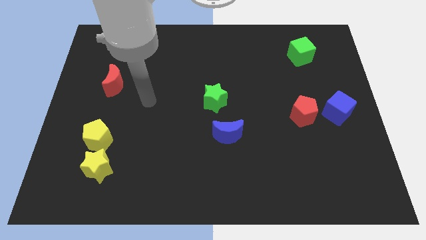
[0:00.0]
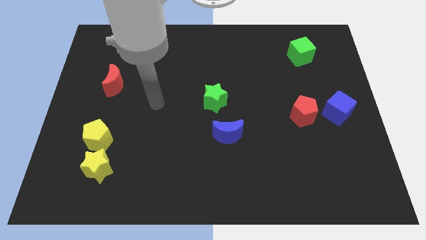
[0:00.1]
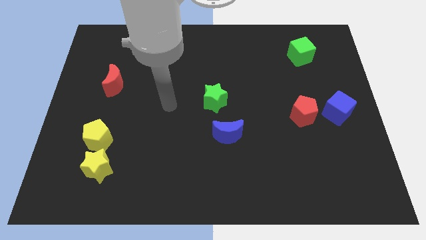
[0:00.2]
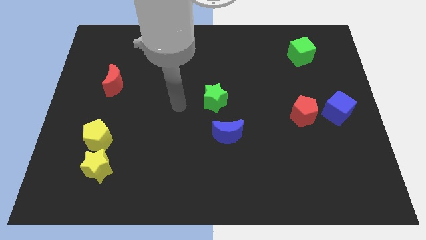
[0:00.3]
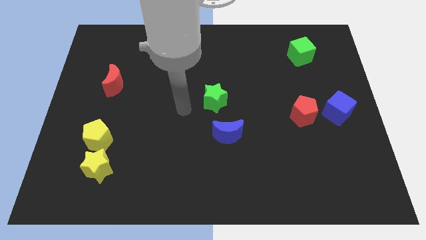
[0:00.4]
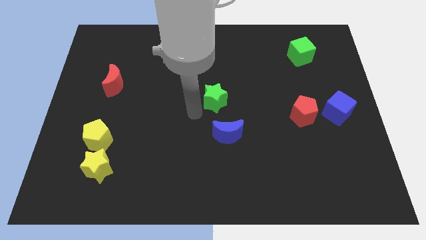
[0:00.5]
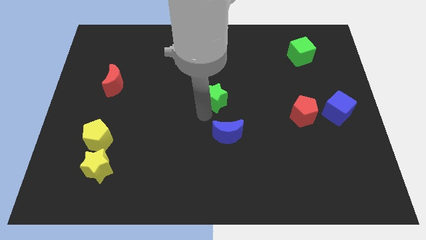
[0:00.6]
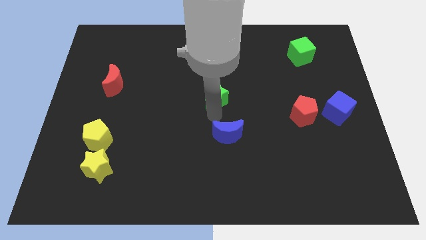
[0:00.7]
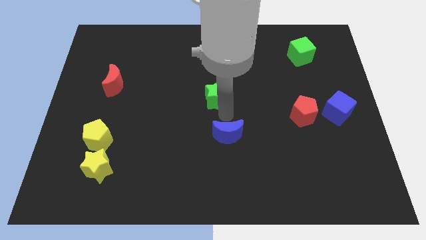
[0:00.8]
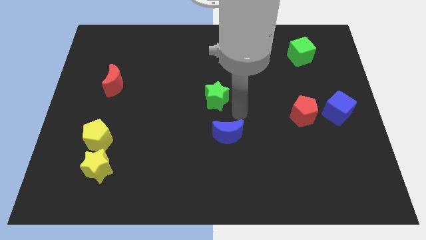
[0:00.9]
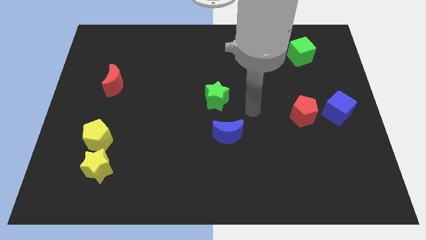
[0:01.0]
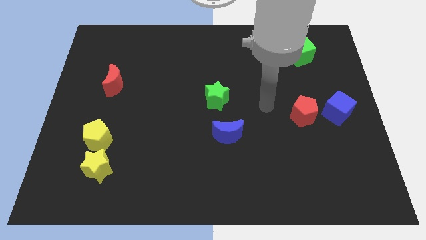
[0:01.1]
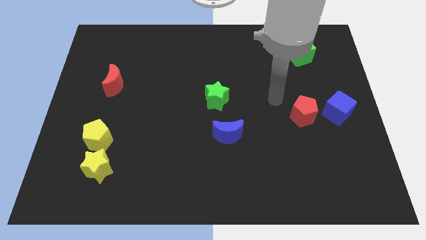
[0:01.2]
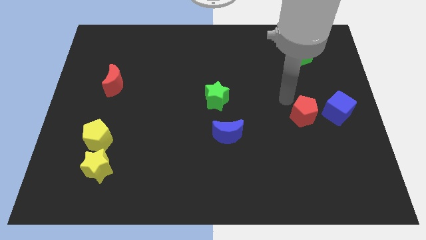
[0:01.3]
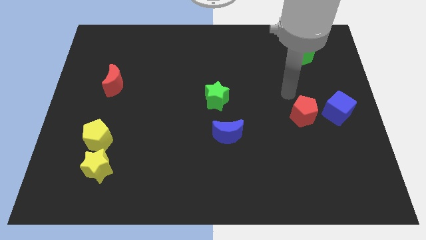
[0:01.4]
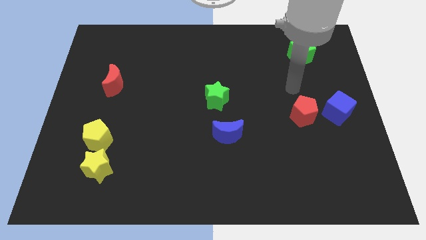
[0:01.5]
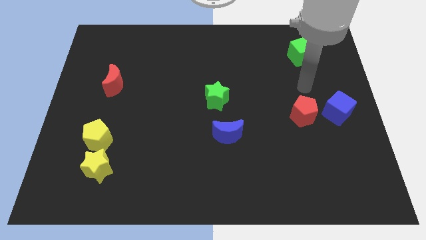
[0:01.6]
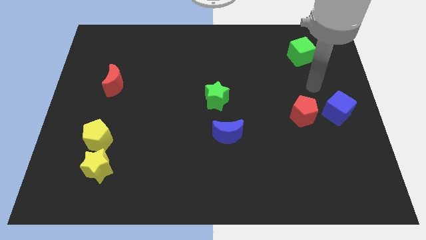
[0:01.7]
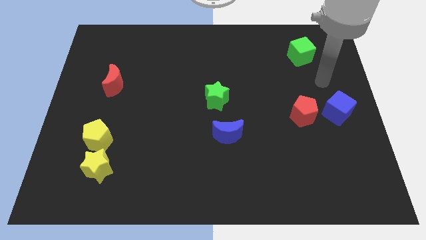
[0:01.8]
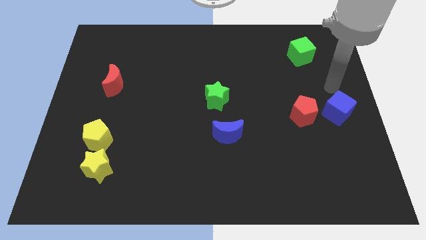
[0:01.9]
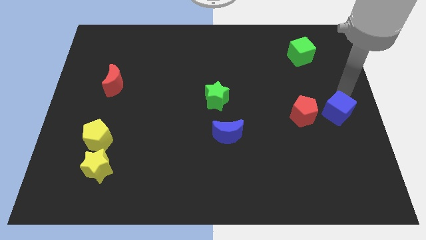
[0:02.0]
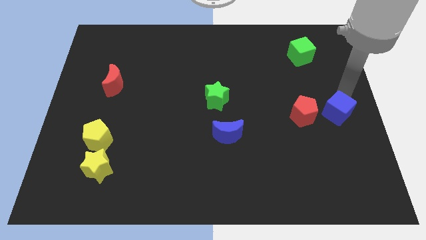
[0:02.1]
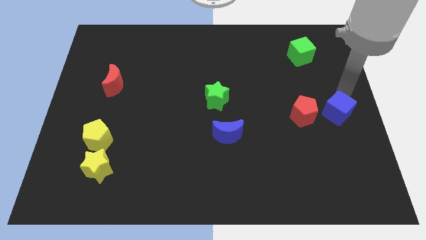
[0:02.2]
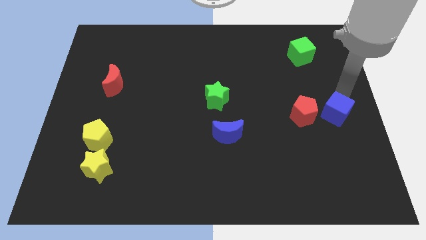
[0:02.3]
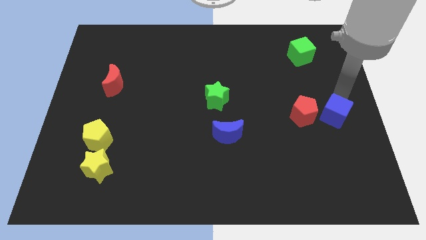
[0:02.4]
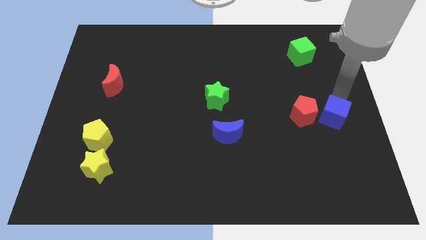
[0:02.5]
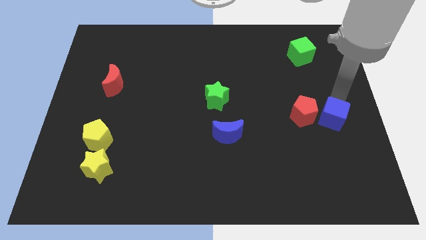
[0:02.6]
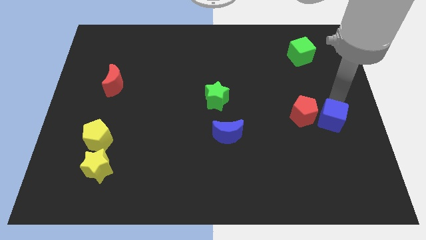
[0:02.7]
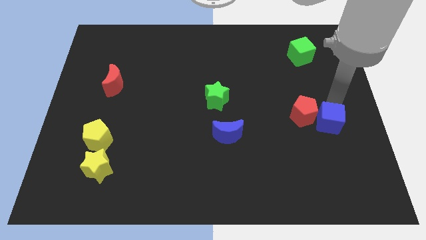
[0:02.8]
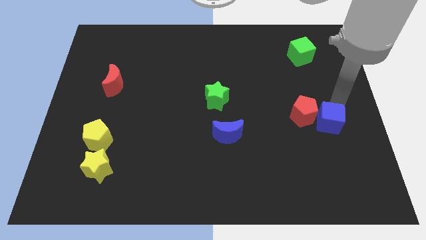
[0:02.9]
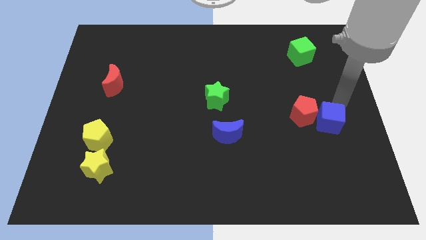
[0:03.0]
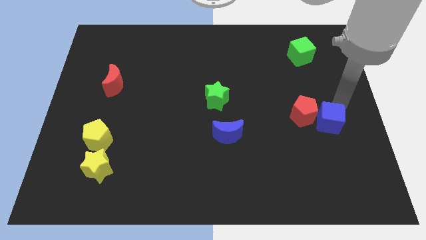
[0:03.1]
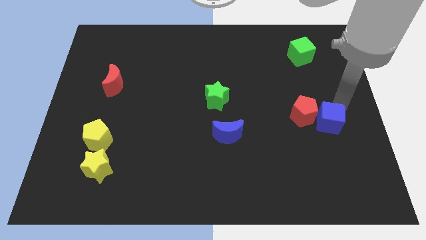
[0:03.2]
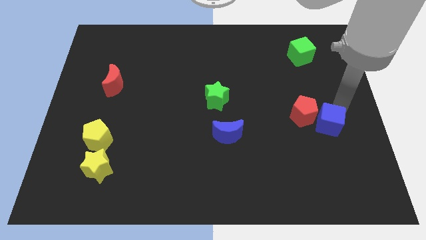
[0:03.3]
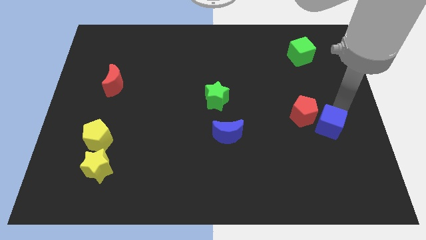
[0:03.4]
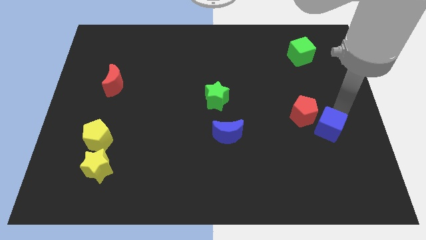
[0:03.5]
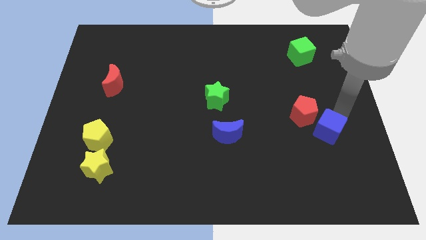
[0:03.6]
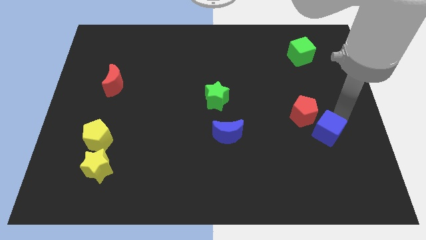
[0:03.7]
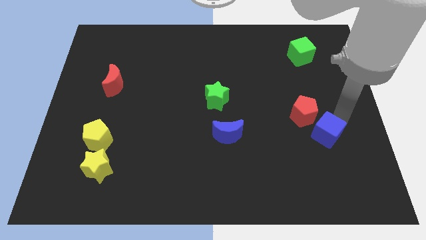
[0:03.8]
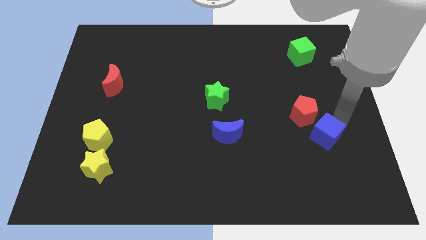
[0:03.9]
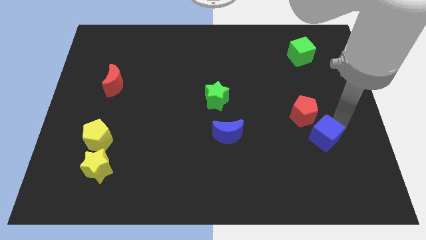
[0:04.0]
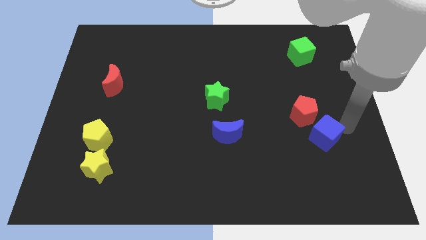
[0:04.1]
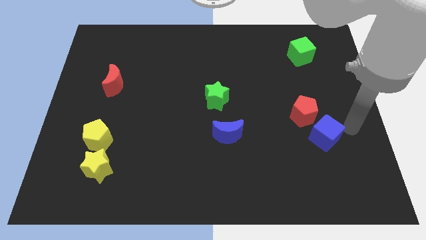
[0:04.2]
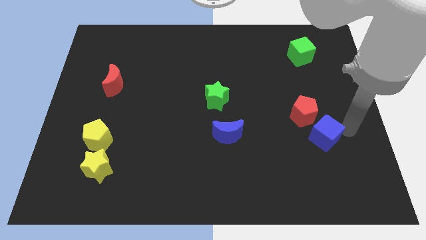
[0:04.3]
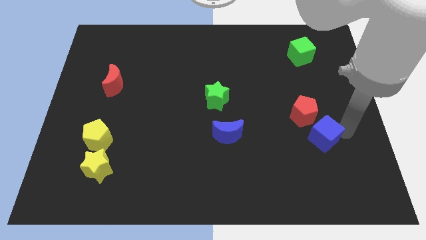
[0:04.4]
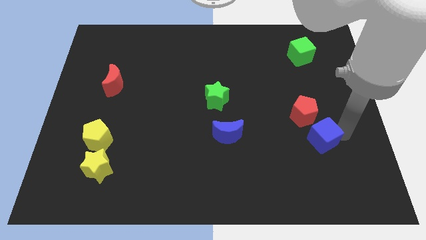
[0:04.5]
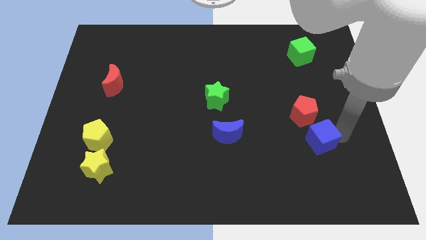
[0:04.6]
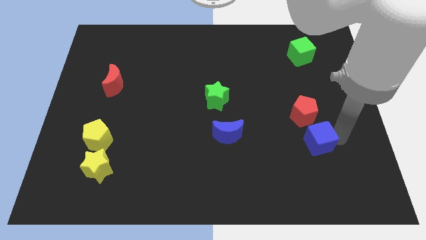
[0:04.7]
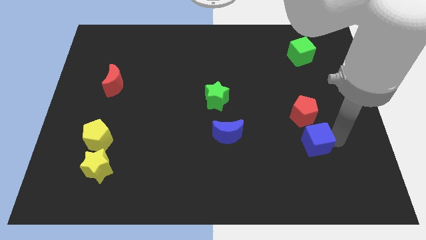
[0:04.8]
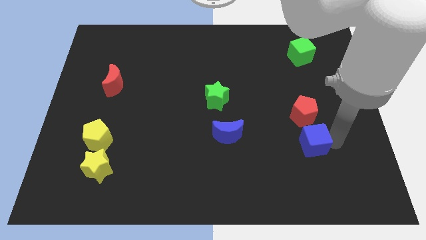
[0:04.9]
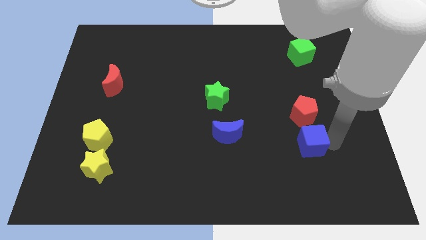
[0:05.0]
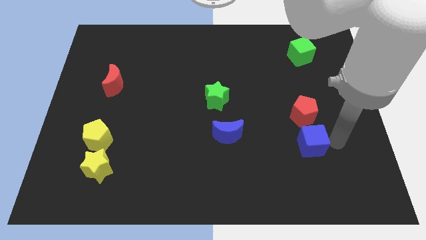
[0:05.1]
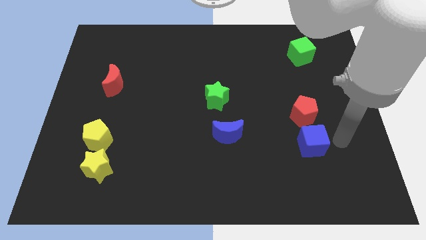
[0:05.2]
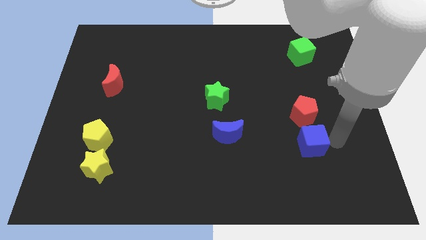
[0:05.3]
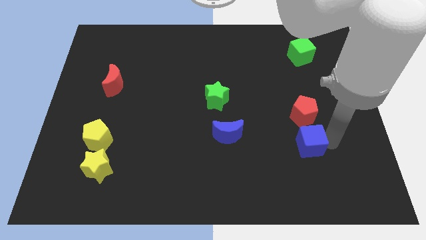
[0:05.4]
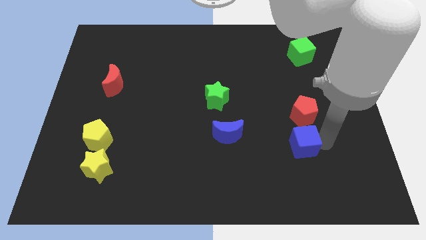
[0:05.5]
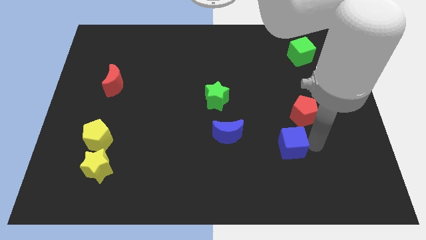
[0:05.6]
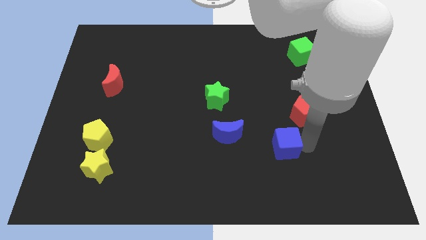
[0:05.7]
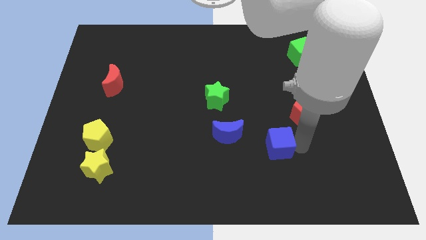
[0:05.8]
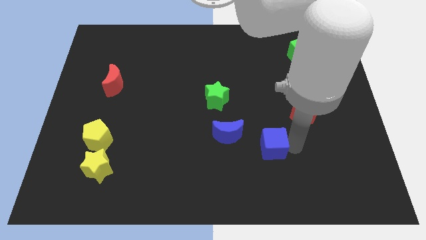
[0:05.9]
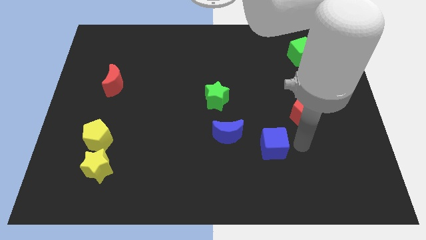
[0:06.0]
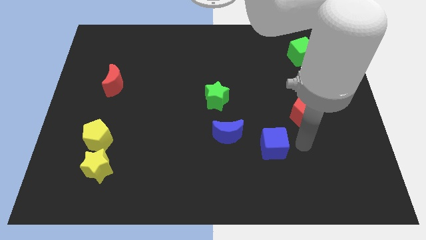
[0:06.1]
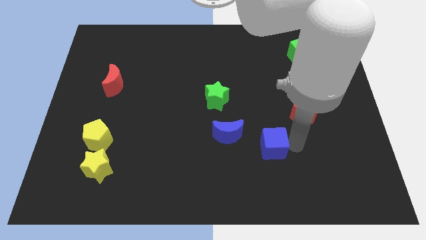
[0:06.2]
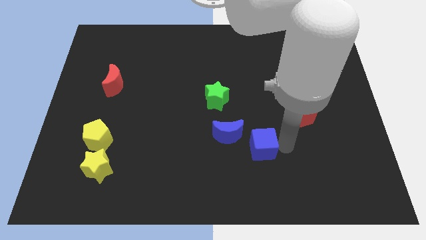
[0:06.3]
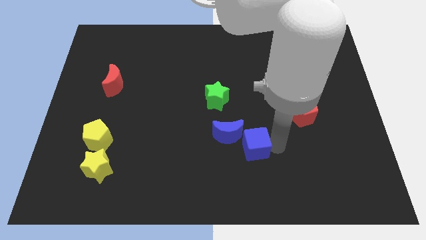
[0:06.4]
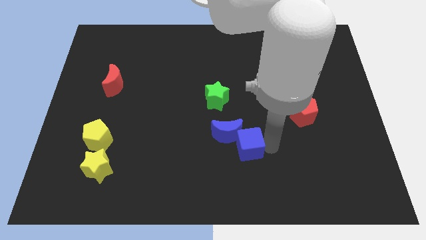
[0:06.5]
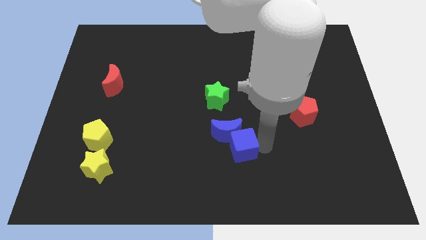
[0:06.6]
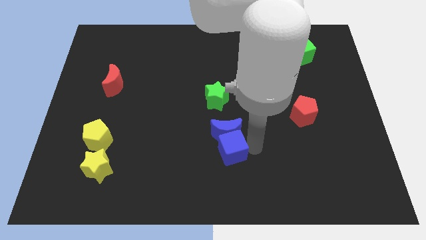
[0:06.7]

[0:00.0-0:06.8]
put the blue cube diagonally down and to the left of the blue moon

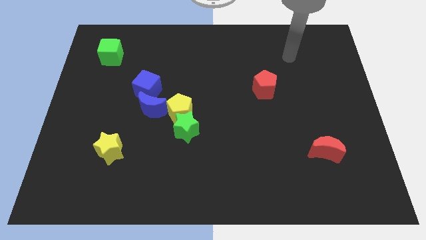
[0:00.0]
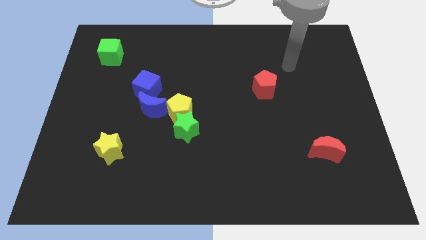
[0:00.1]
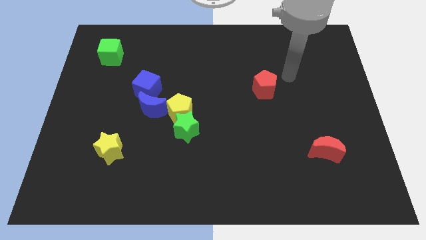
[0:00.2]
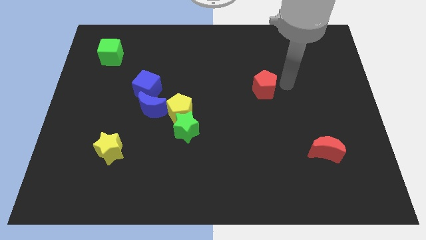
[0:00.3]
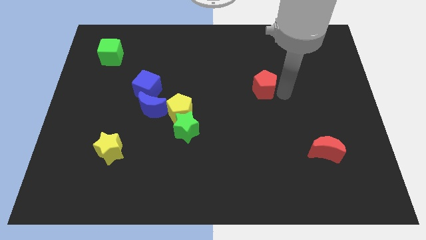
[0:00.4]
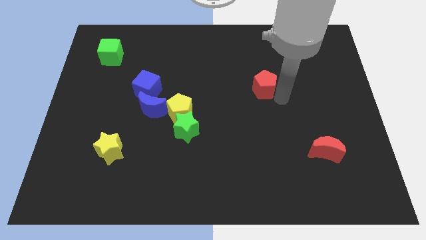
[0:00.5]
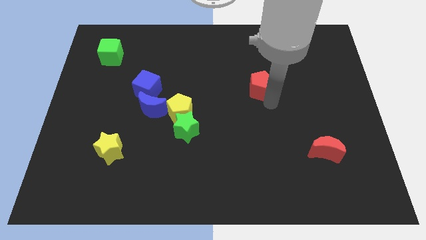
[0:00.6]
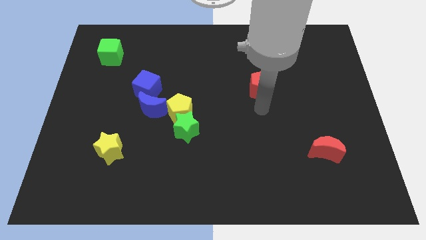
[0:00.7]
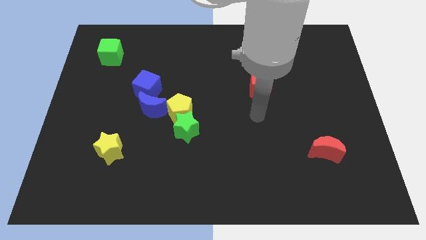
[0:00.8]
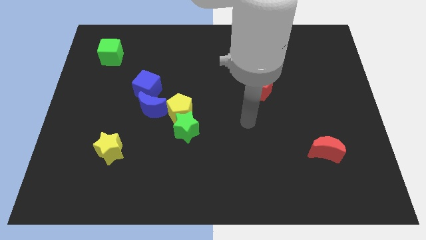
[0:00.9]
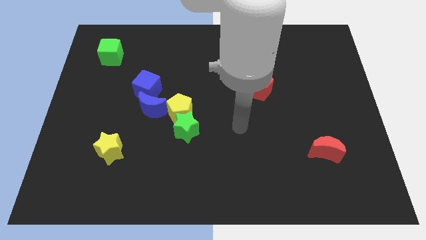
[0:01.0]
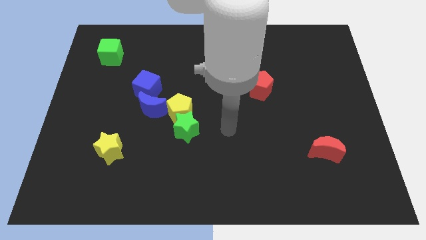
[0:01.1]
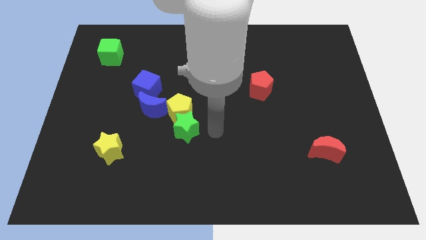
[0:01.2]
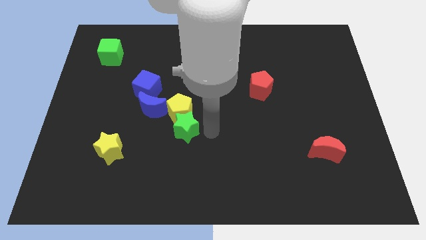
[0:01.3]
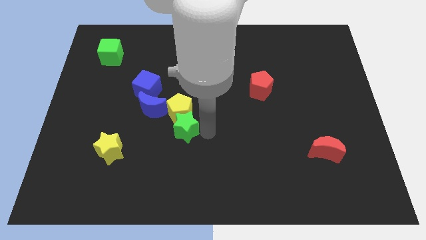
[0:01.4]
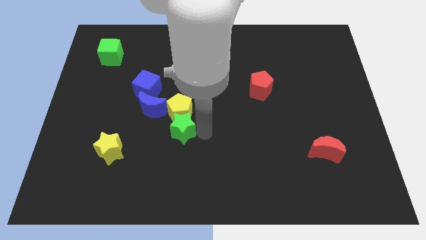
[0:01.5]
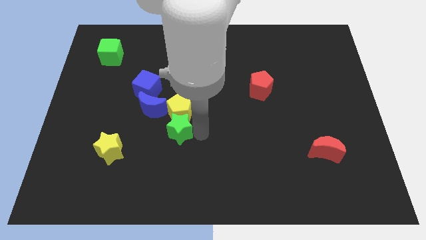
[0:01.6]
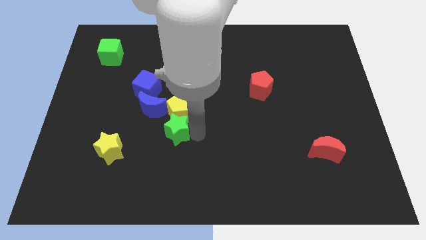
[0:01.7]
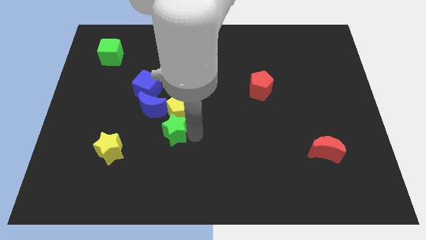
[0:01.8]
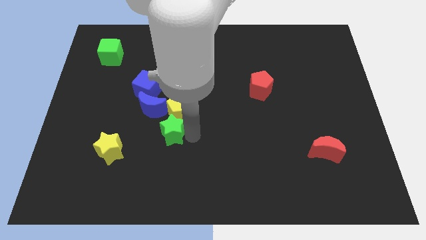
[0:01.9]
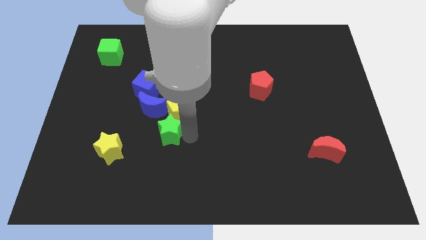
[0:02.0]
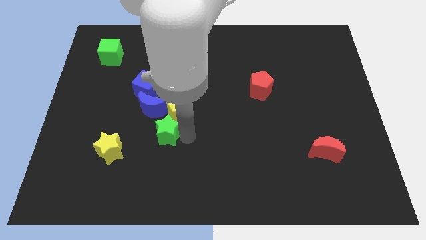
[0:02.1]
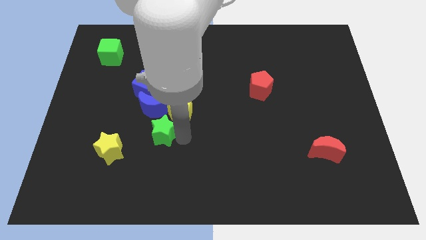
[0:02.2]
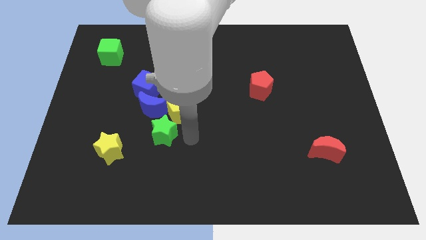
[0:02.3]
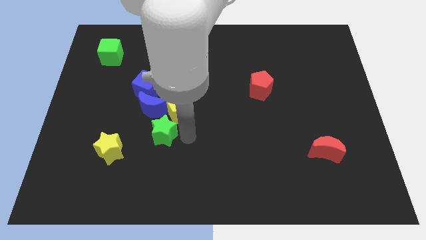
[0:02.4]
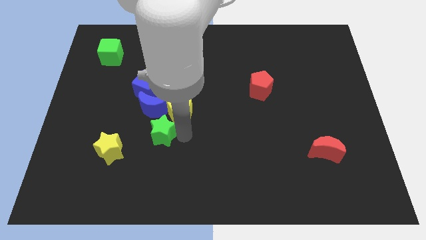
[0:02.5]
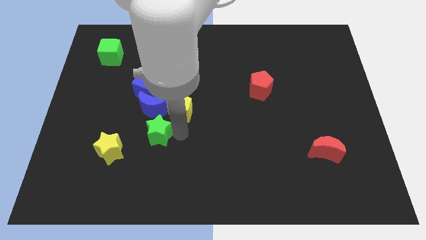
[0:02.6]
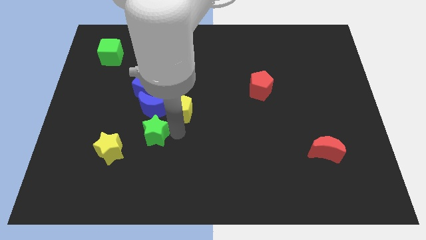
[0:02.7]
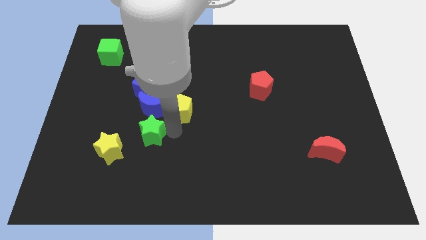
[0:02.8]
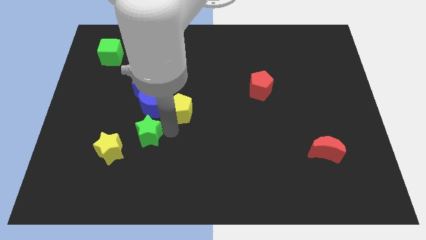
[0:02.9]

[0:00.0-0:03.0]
move the green star to the bottom left of the blue moon
